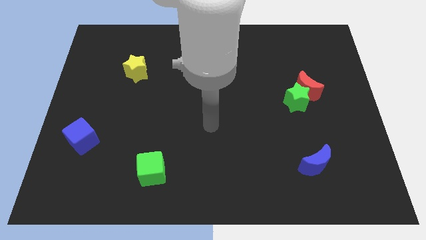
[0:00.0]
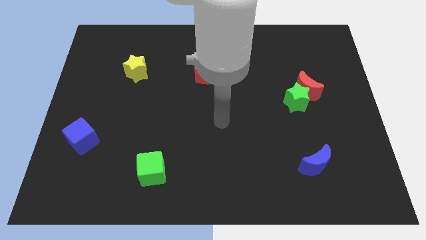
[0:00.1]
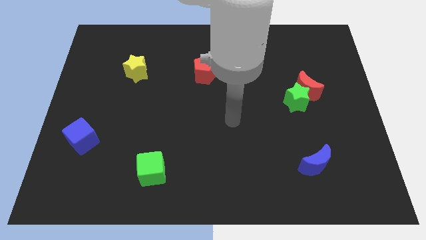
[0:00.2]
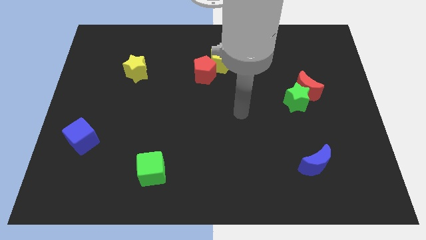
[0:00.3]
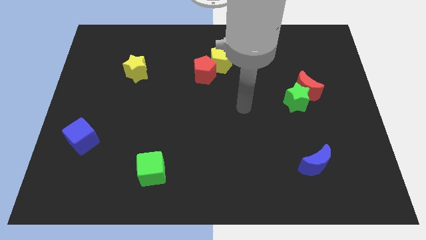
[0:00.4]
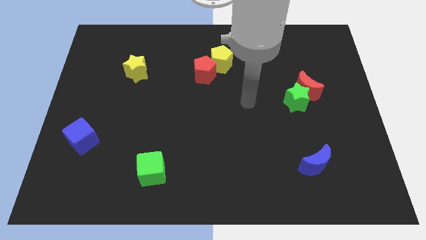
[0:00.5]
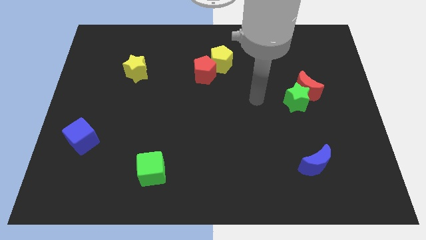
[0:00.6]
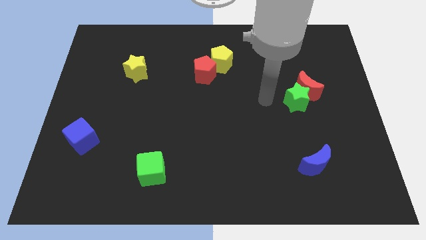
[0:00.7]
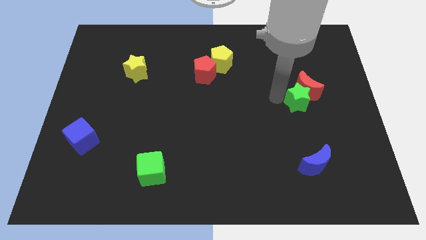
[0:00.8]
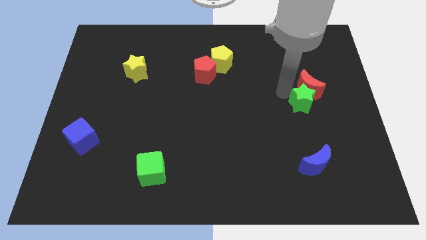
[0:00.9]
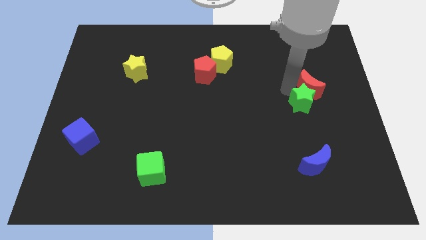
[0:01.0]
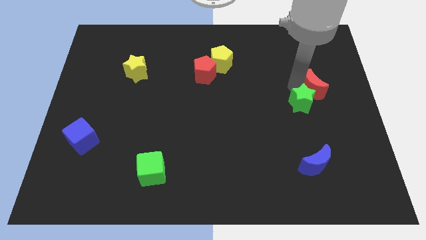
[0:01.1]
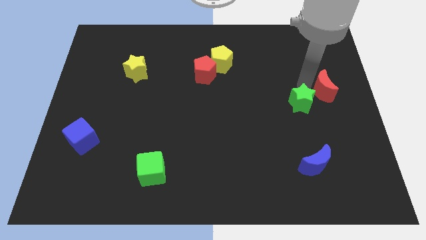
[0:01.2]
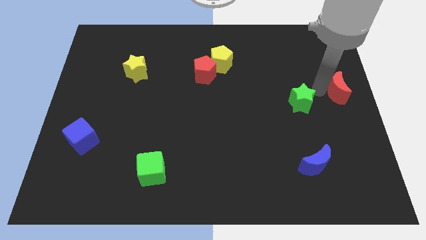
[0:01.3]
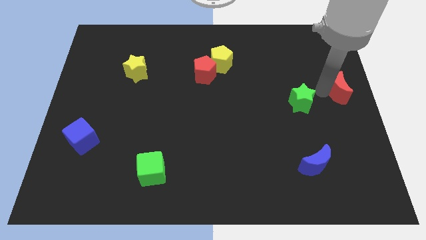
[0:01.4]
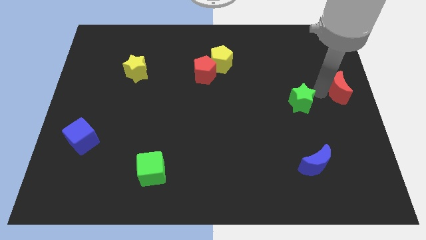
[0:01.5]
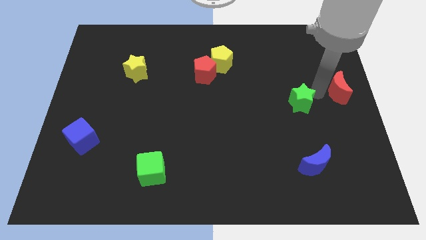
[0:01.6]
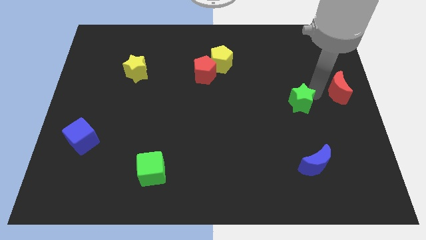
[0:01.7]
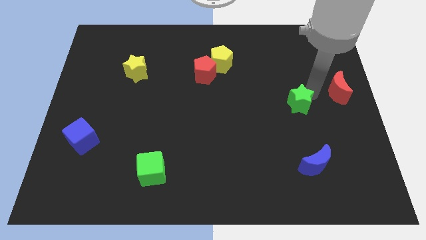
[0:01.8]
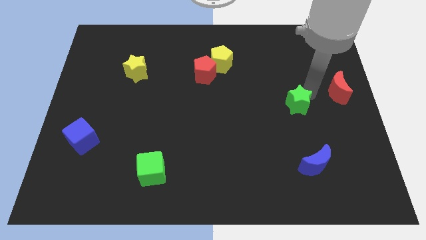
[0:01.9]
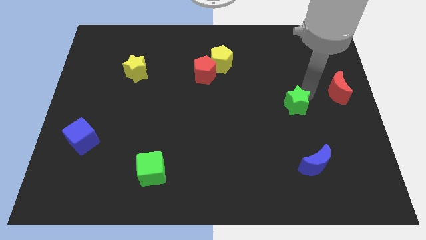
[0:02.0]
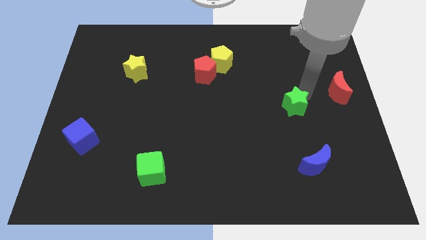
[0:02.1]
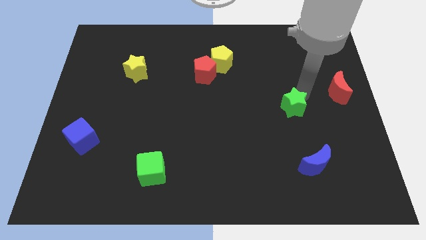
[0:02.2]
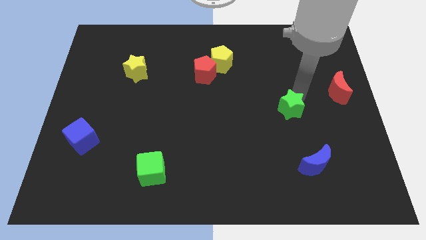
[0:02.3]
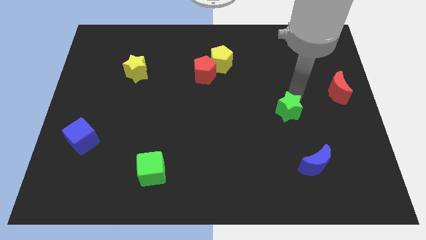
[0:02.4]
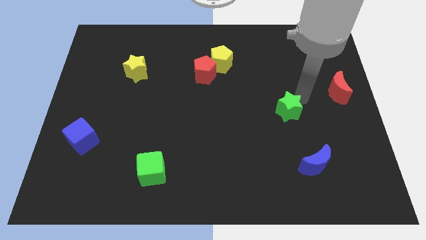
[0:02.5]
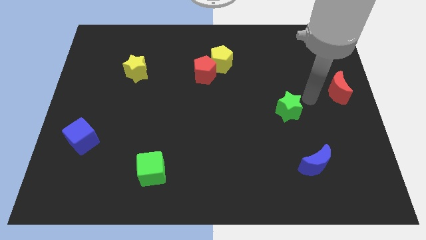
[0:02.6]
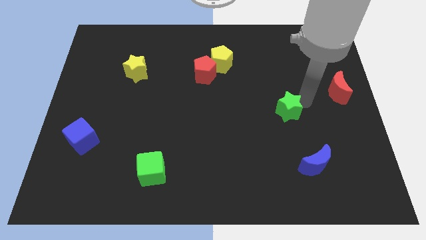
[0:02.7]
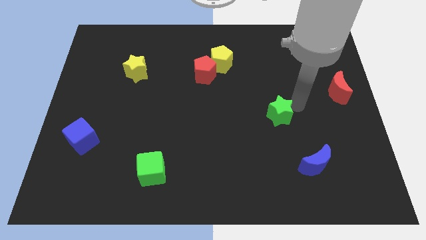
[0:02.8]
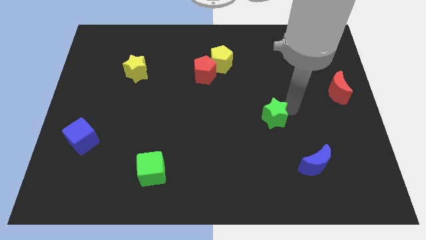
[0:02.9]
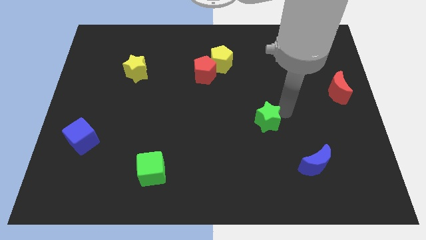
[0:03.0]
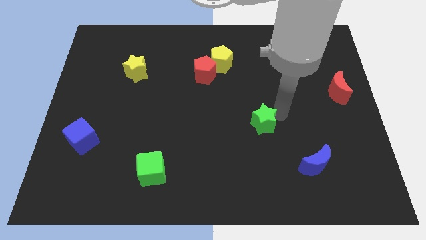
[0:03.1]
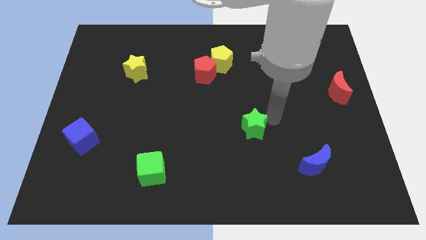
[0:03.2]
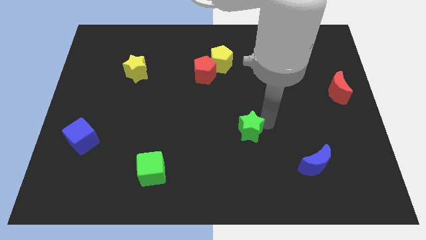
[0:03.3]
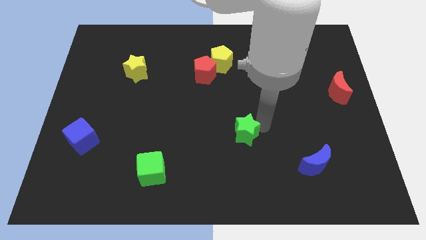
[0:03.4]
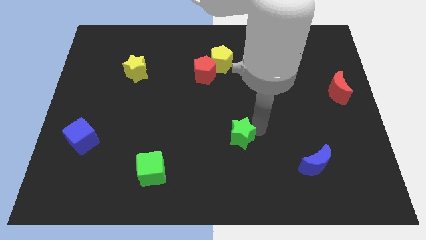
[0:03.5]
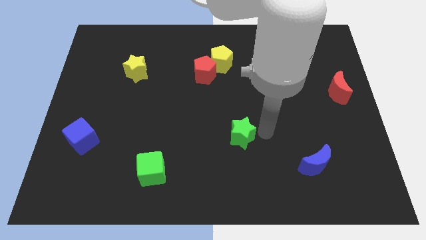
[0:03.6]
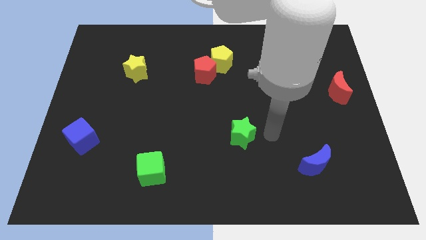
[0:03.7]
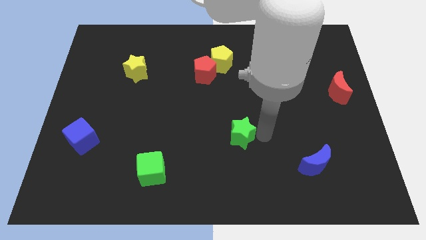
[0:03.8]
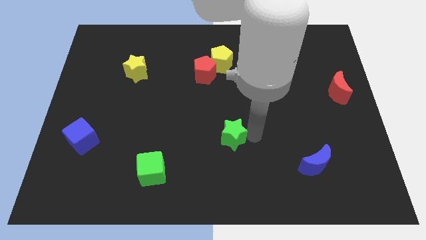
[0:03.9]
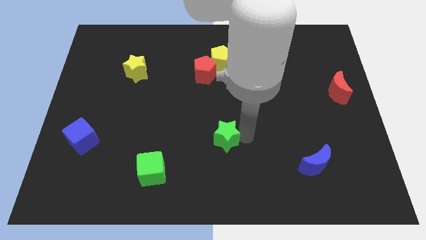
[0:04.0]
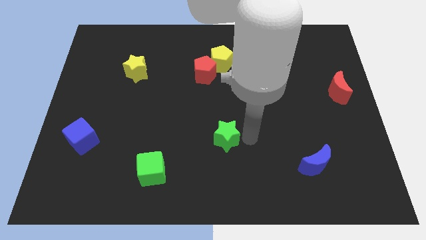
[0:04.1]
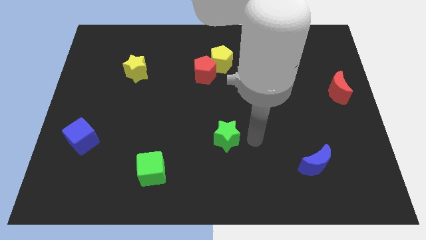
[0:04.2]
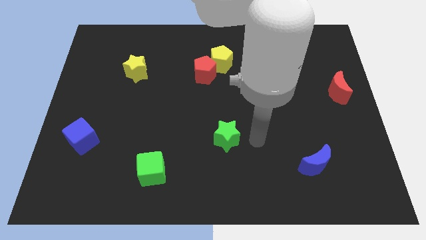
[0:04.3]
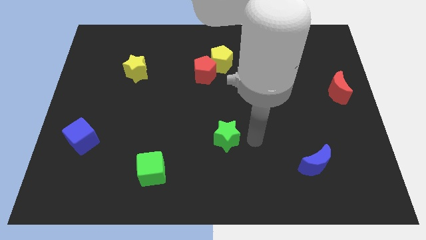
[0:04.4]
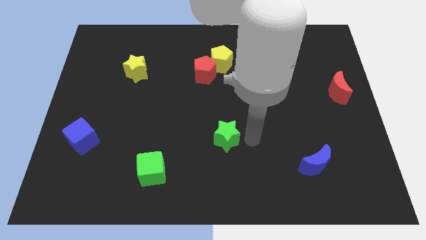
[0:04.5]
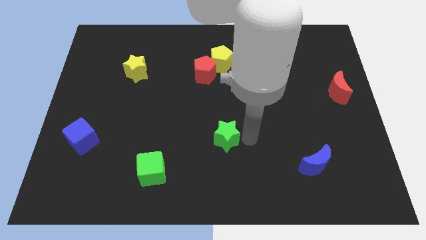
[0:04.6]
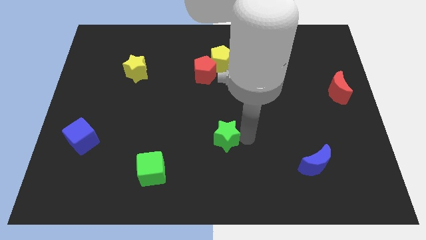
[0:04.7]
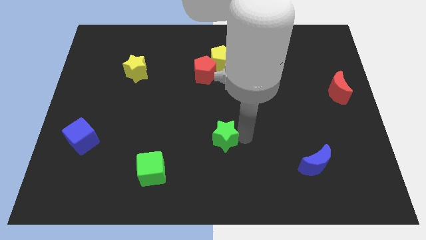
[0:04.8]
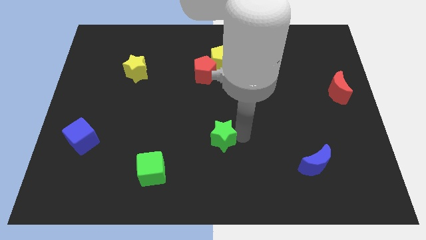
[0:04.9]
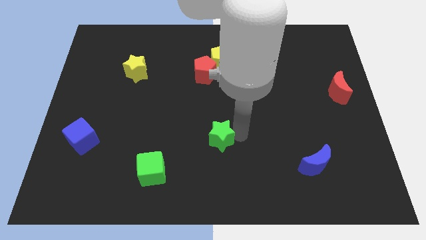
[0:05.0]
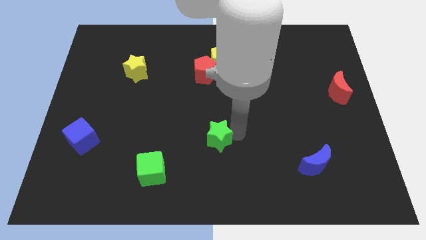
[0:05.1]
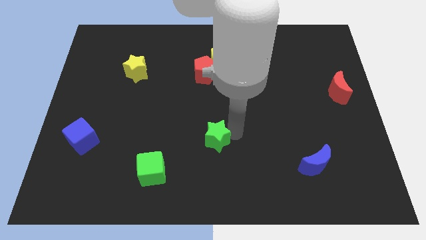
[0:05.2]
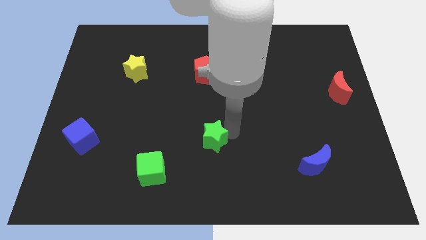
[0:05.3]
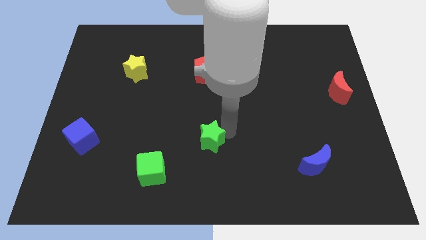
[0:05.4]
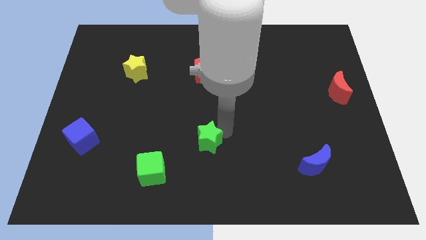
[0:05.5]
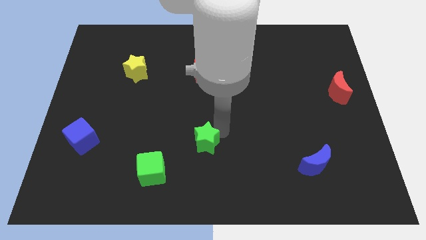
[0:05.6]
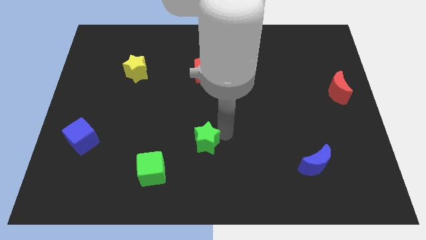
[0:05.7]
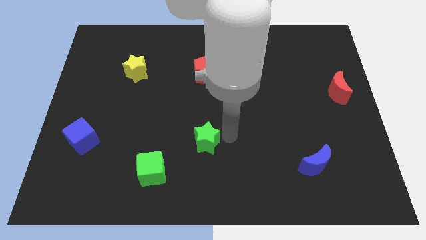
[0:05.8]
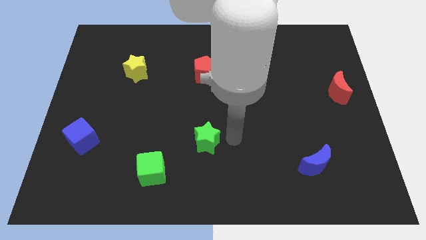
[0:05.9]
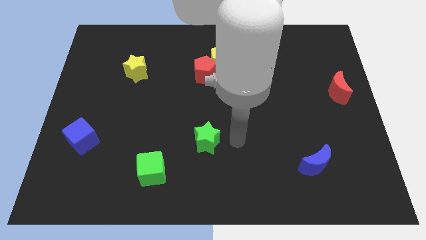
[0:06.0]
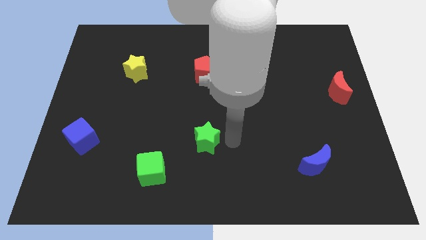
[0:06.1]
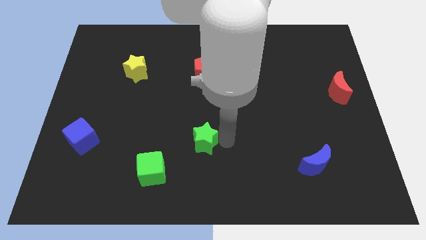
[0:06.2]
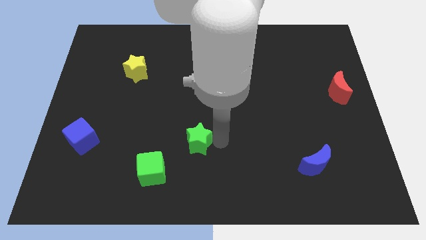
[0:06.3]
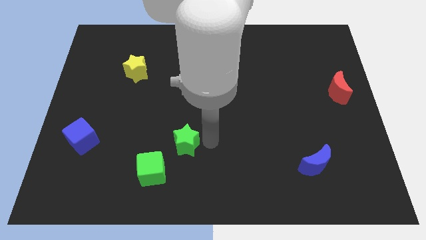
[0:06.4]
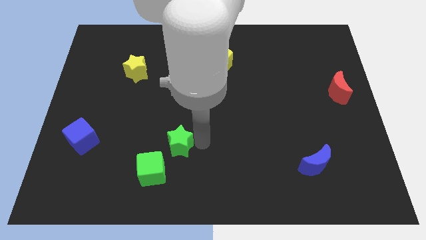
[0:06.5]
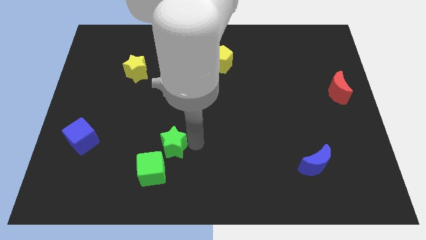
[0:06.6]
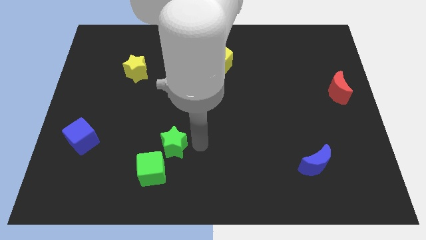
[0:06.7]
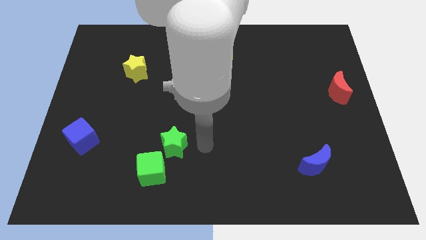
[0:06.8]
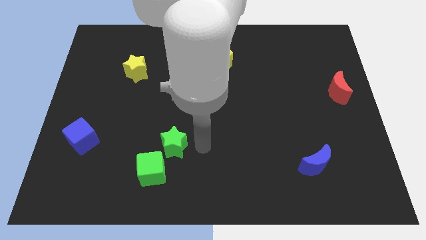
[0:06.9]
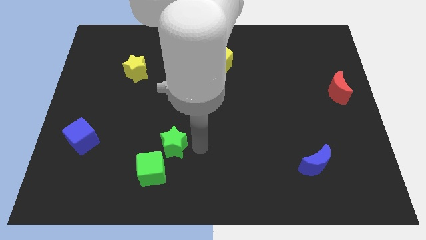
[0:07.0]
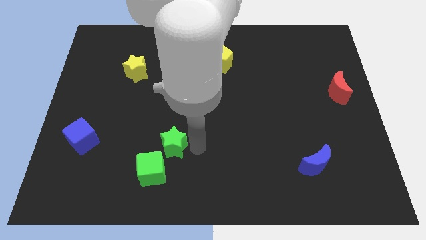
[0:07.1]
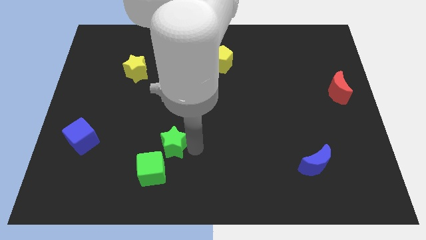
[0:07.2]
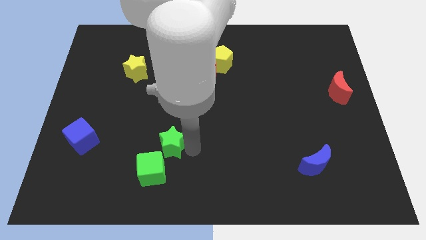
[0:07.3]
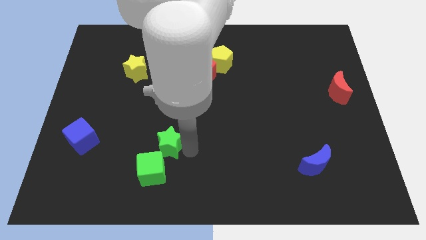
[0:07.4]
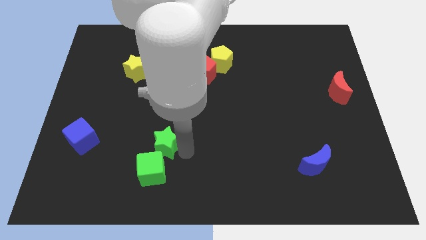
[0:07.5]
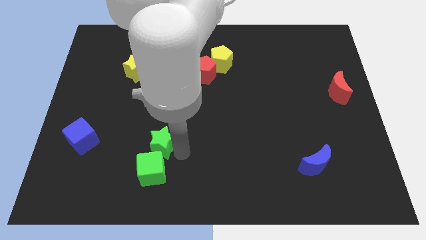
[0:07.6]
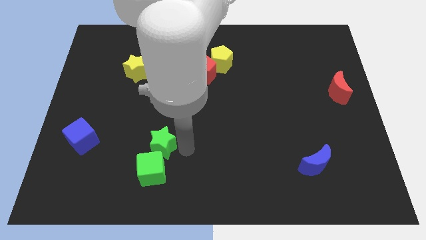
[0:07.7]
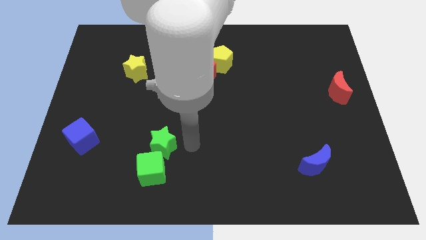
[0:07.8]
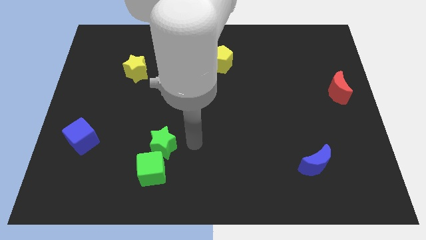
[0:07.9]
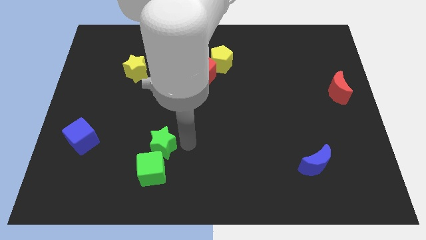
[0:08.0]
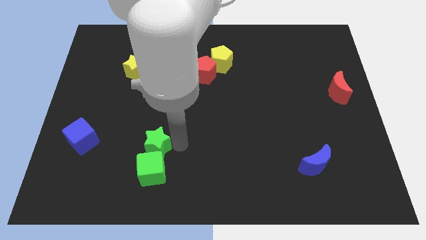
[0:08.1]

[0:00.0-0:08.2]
move the green star diagonally up and to the left of the green cube
